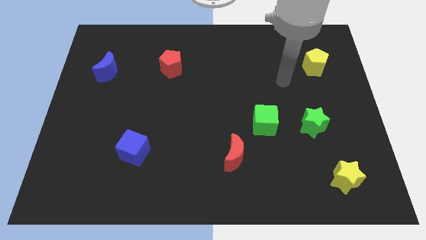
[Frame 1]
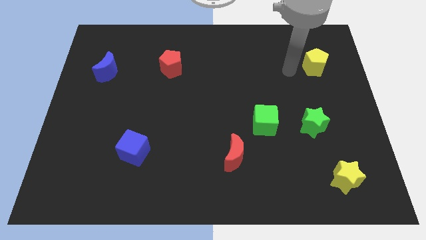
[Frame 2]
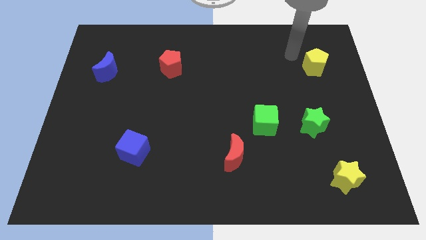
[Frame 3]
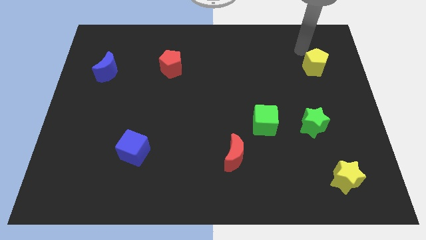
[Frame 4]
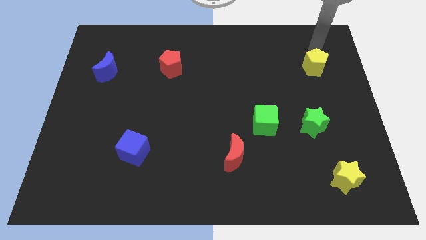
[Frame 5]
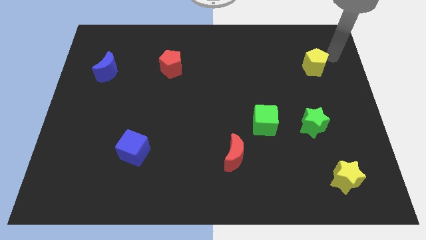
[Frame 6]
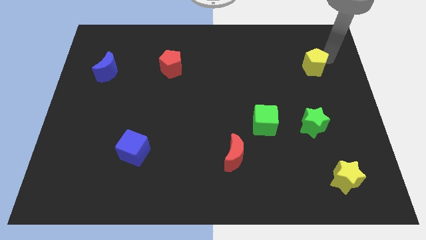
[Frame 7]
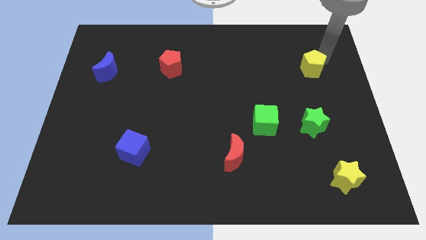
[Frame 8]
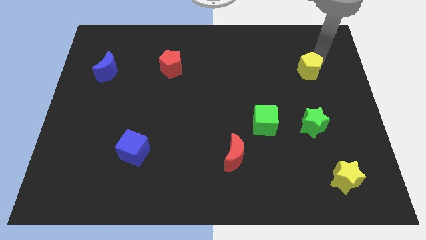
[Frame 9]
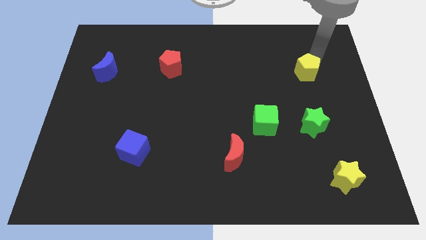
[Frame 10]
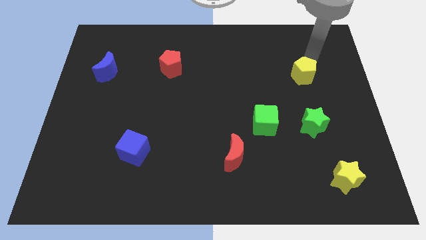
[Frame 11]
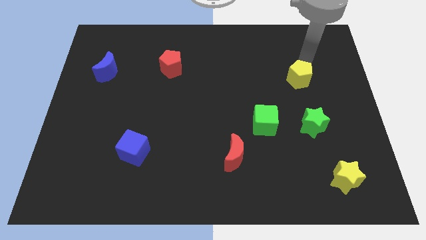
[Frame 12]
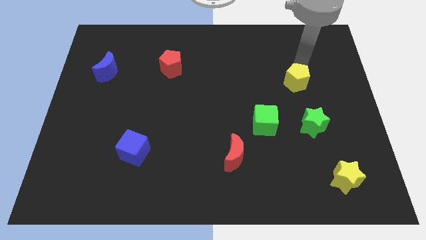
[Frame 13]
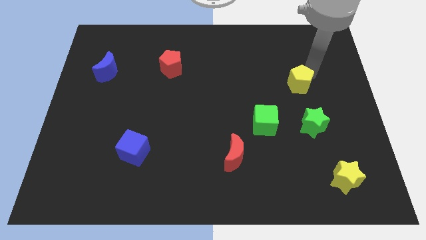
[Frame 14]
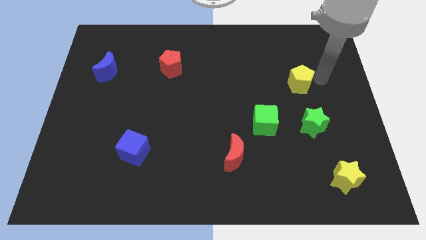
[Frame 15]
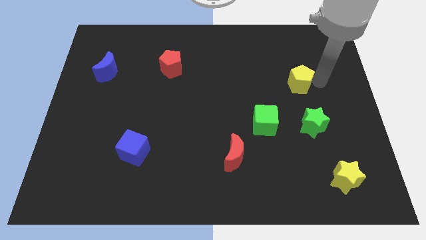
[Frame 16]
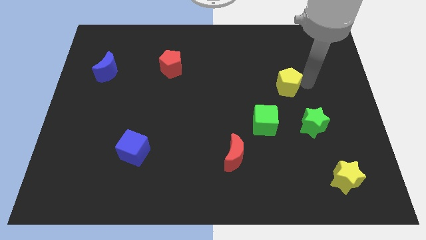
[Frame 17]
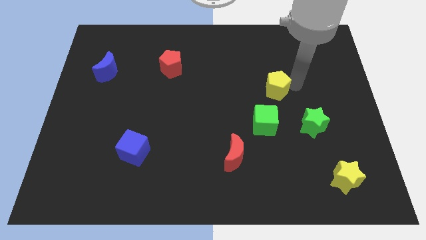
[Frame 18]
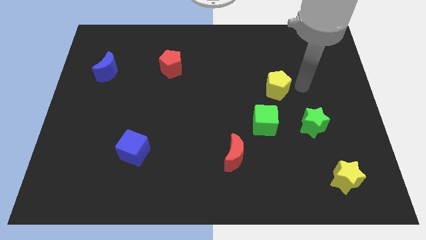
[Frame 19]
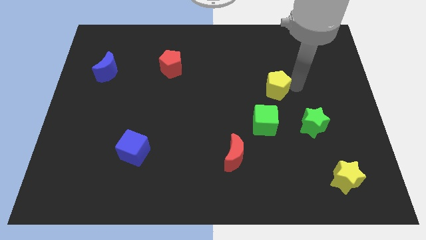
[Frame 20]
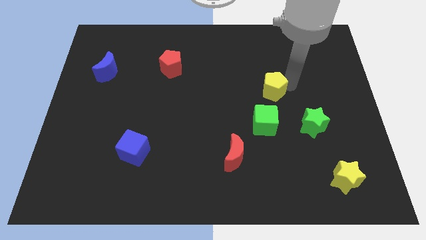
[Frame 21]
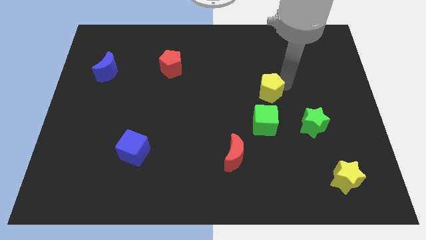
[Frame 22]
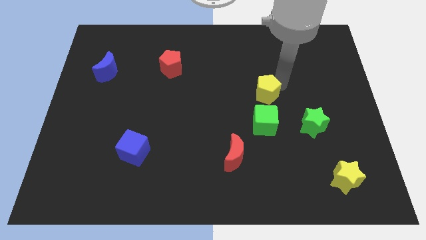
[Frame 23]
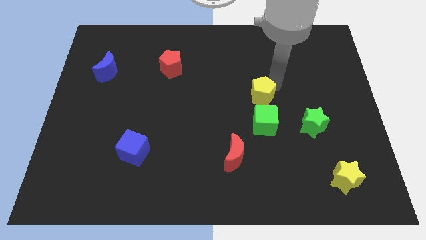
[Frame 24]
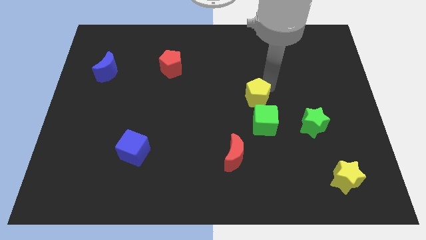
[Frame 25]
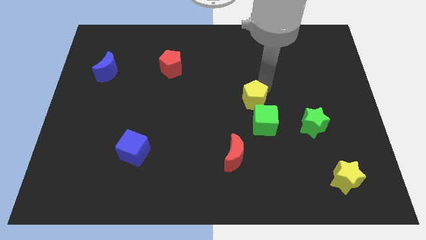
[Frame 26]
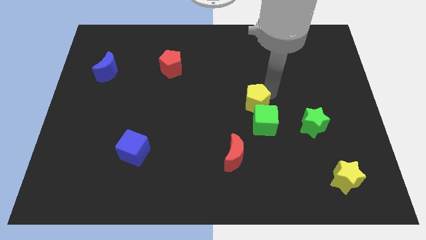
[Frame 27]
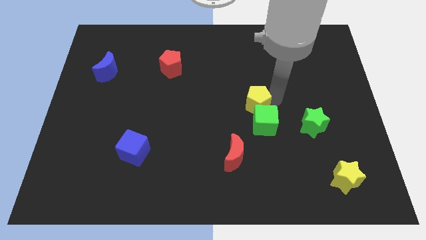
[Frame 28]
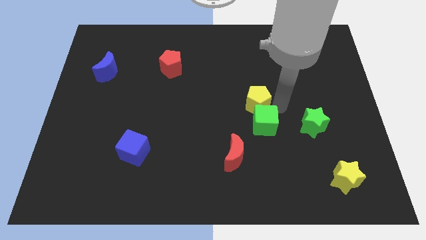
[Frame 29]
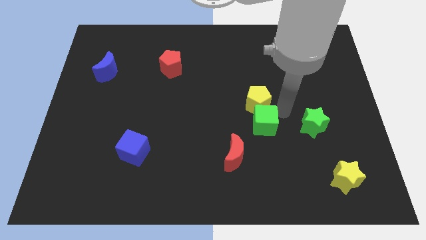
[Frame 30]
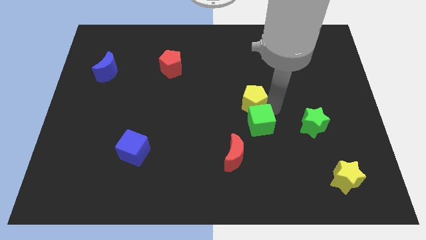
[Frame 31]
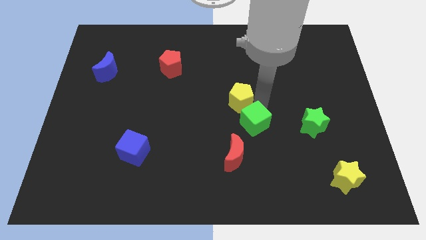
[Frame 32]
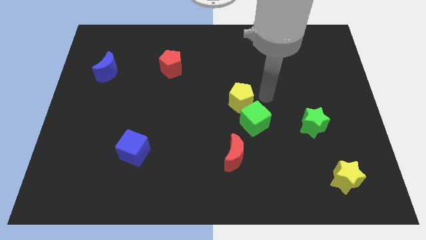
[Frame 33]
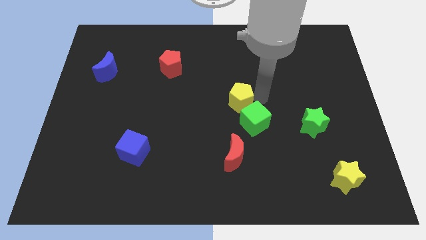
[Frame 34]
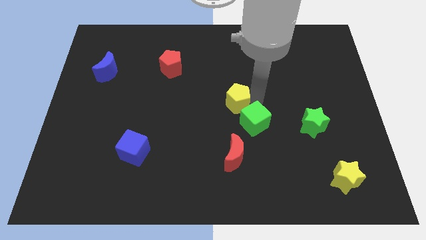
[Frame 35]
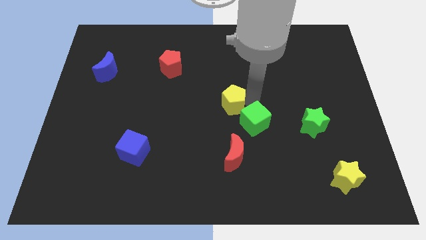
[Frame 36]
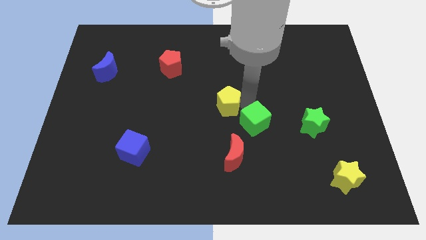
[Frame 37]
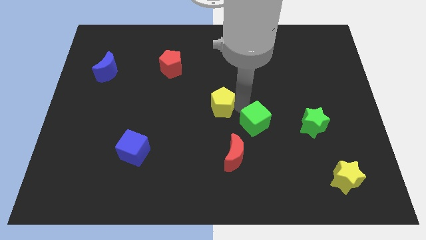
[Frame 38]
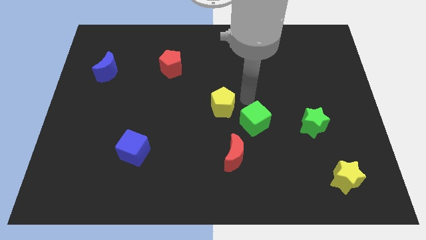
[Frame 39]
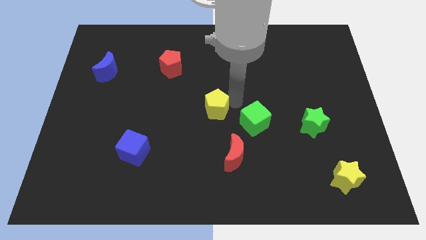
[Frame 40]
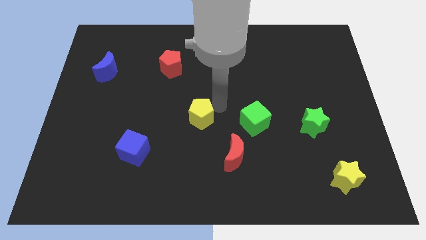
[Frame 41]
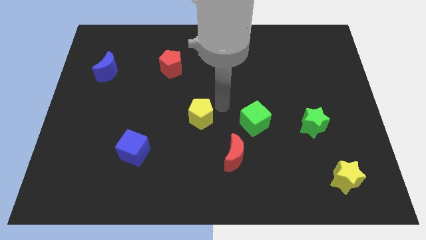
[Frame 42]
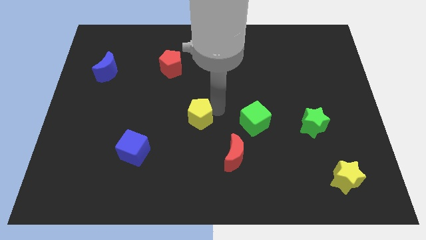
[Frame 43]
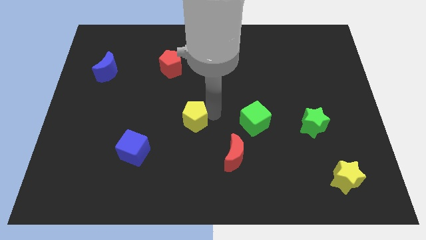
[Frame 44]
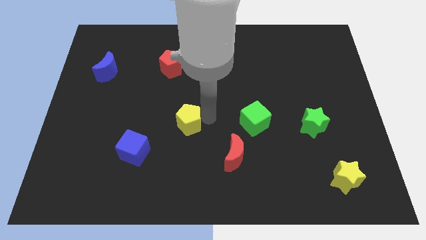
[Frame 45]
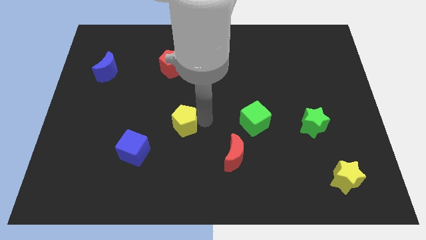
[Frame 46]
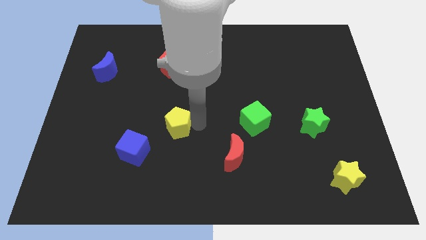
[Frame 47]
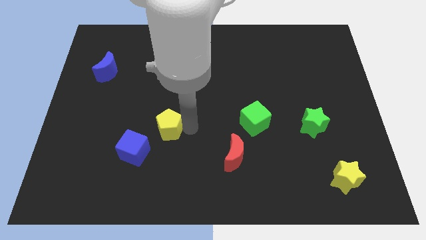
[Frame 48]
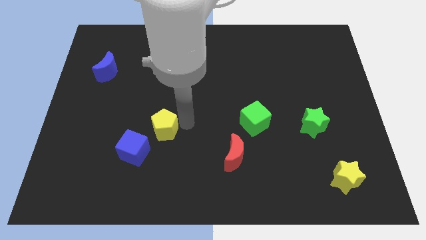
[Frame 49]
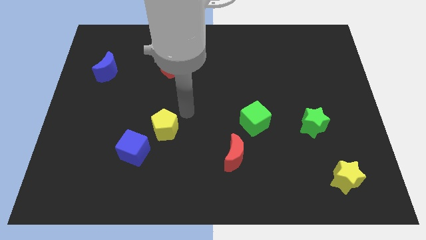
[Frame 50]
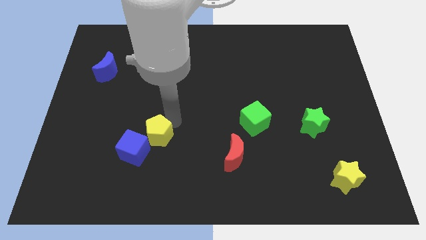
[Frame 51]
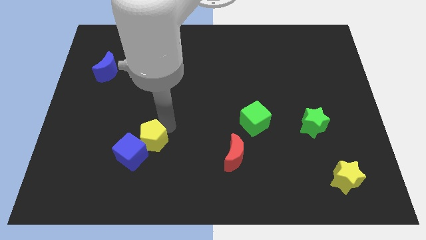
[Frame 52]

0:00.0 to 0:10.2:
move the yellow pentagon next to the blue cube

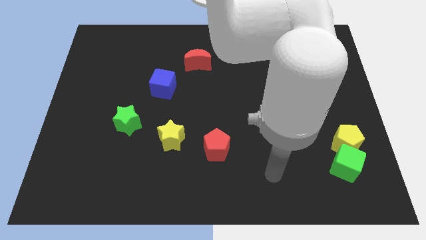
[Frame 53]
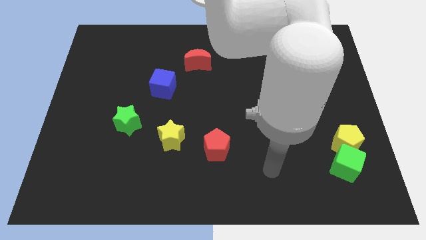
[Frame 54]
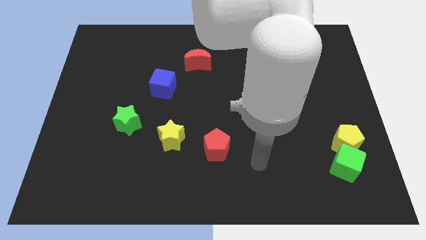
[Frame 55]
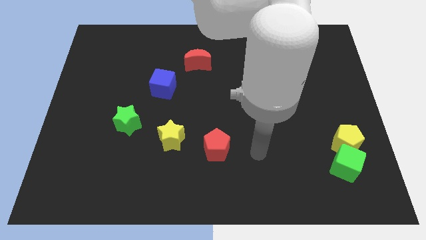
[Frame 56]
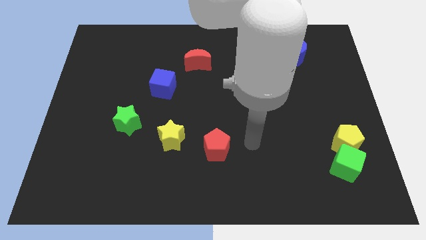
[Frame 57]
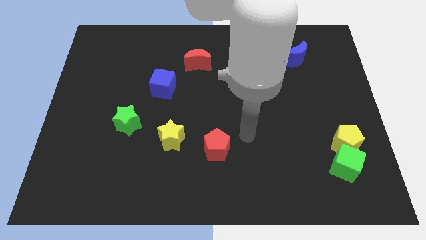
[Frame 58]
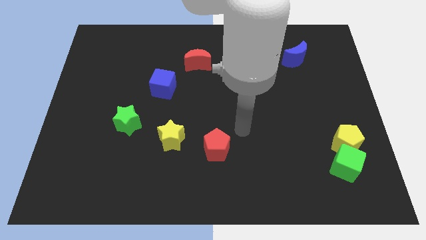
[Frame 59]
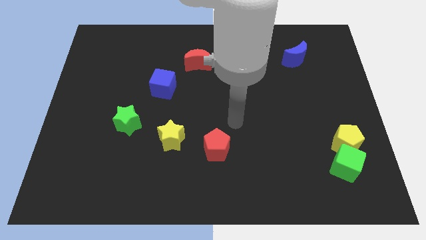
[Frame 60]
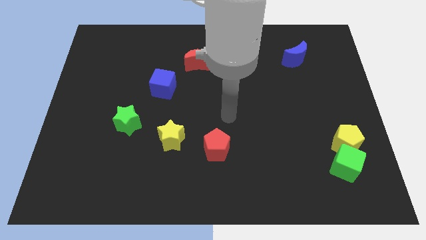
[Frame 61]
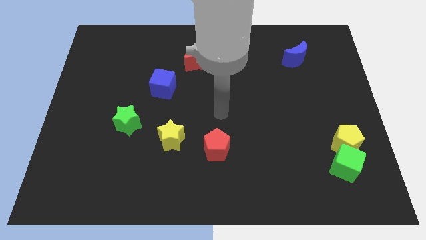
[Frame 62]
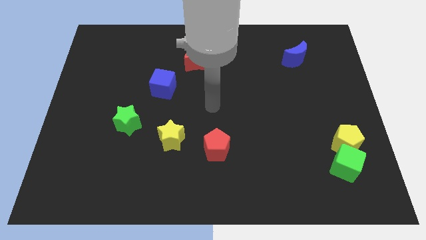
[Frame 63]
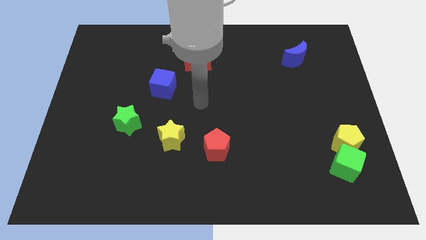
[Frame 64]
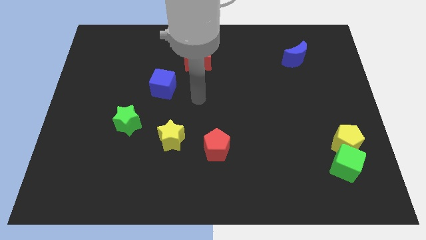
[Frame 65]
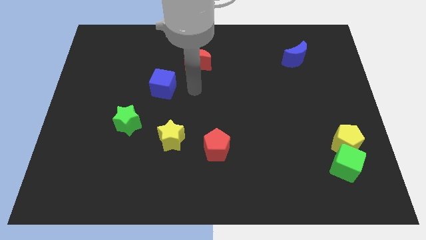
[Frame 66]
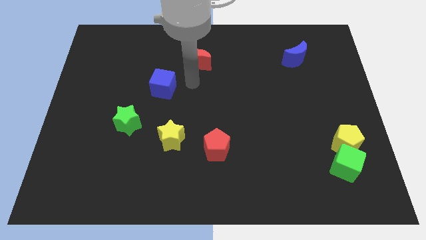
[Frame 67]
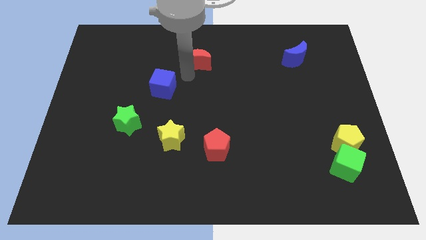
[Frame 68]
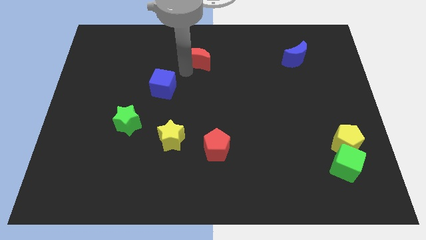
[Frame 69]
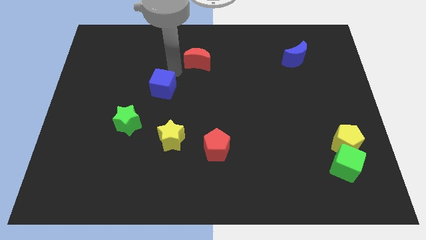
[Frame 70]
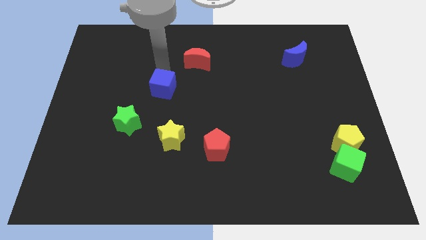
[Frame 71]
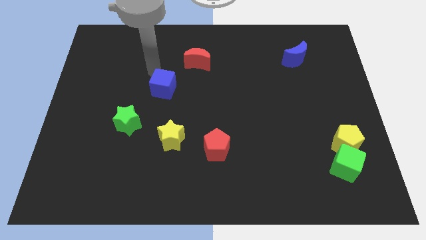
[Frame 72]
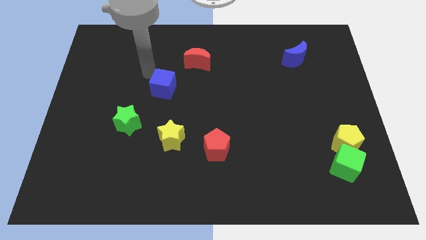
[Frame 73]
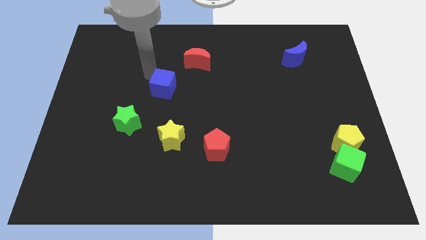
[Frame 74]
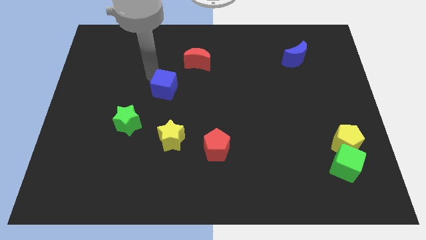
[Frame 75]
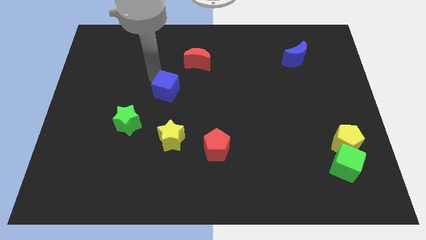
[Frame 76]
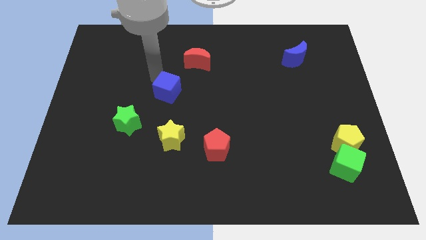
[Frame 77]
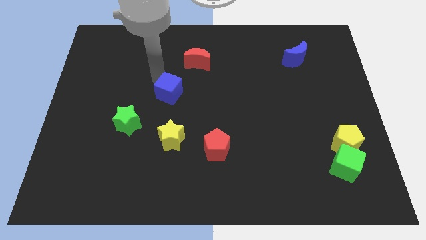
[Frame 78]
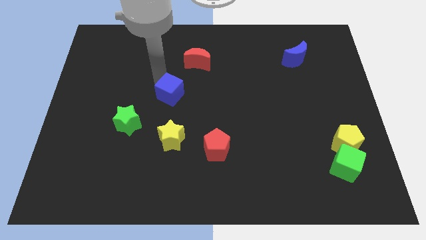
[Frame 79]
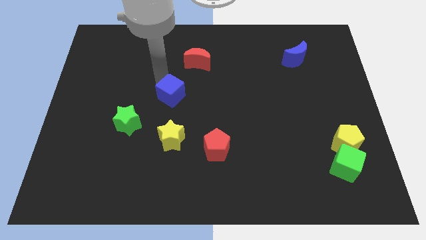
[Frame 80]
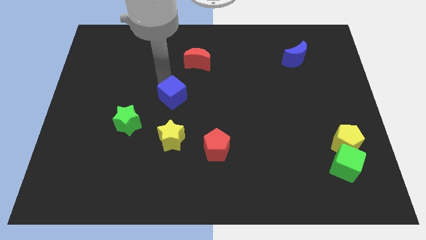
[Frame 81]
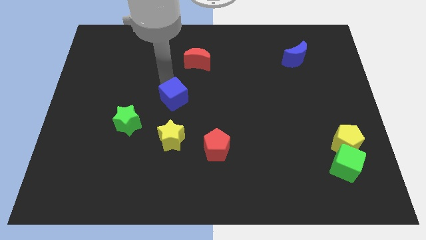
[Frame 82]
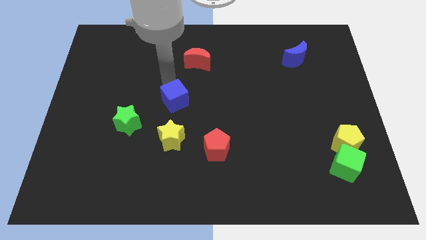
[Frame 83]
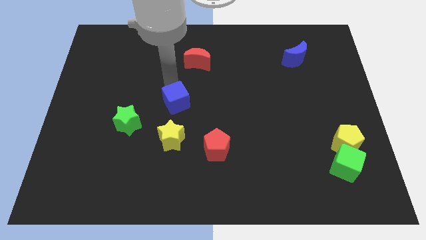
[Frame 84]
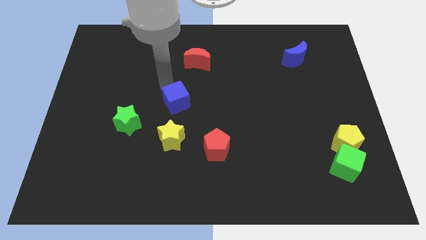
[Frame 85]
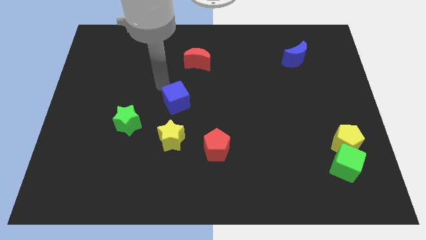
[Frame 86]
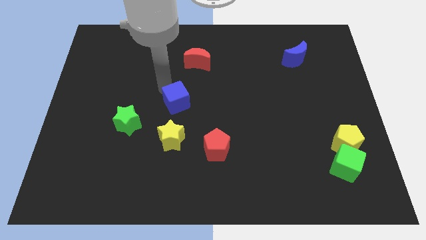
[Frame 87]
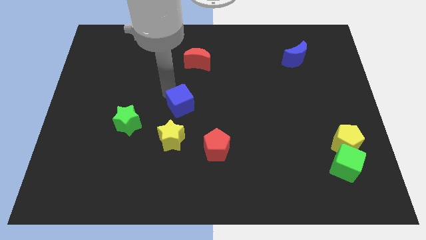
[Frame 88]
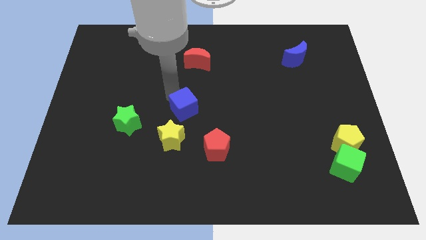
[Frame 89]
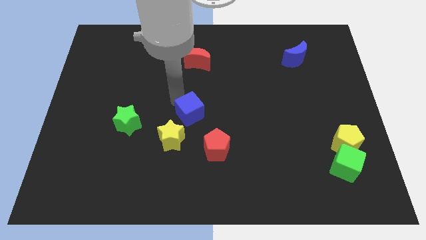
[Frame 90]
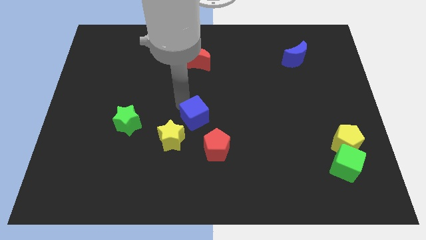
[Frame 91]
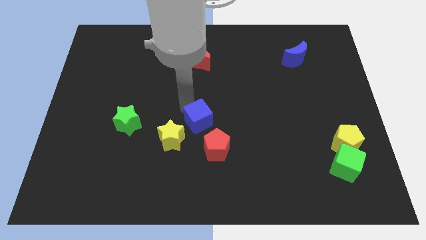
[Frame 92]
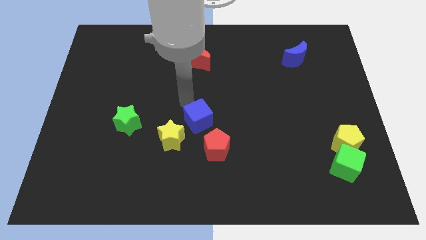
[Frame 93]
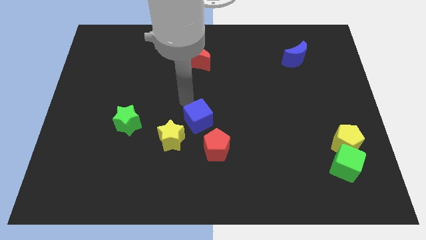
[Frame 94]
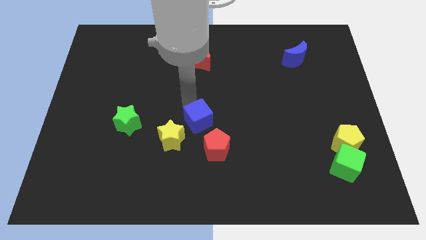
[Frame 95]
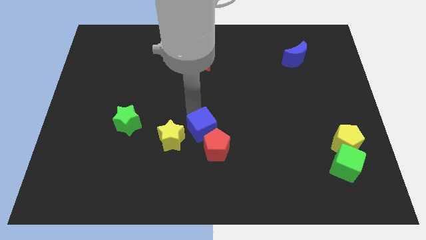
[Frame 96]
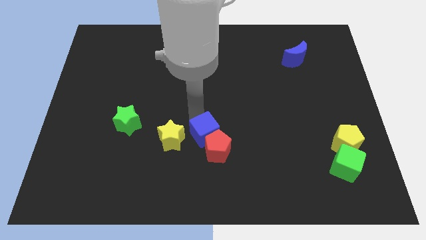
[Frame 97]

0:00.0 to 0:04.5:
push the blue cube close to the red pentagon
